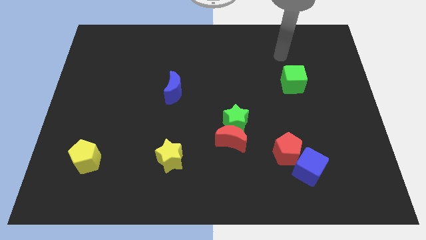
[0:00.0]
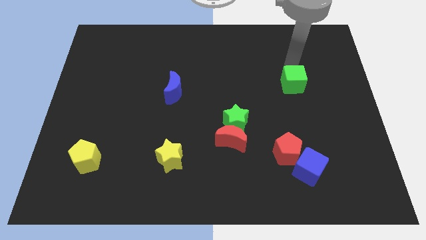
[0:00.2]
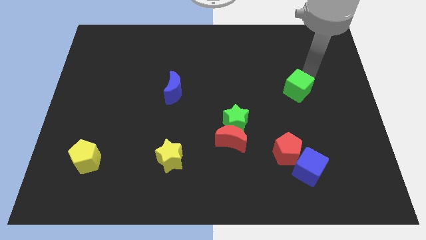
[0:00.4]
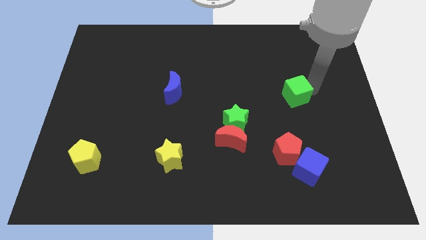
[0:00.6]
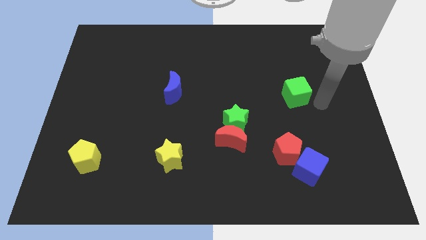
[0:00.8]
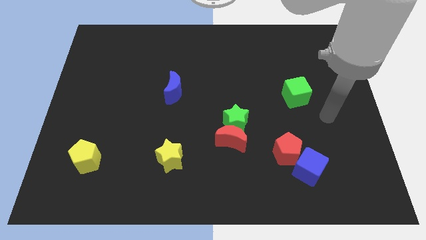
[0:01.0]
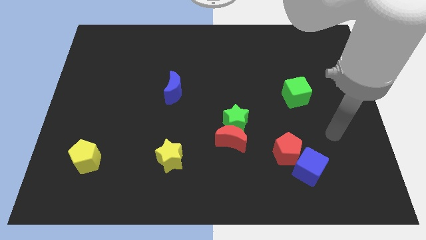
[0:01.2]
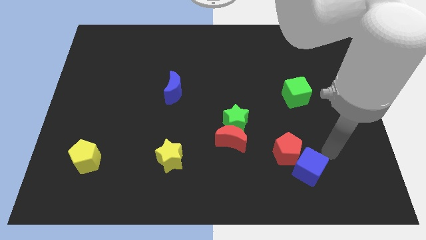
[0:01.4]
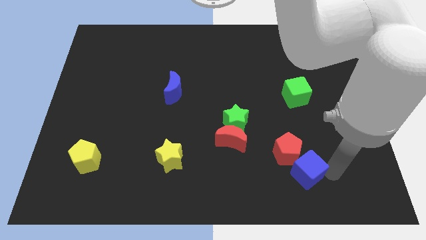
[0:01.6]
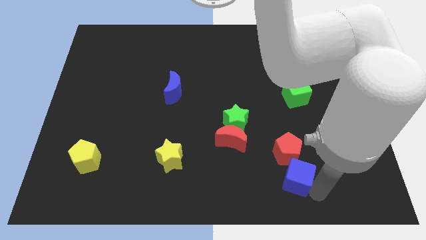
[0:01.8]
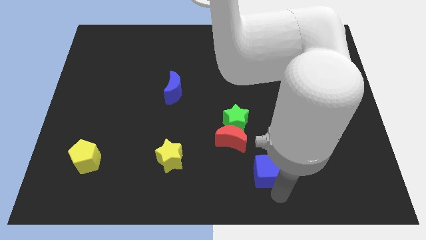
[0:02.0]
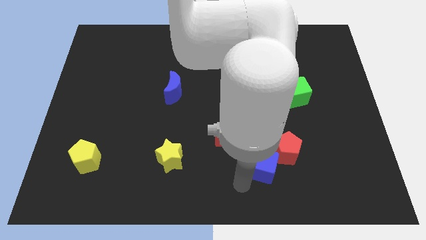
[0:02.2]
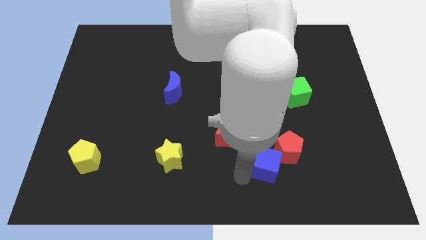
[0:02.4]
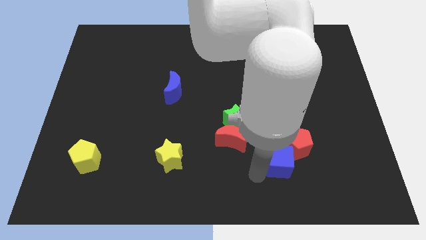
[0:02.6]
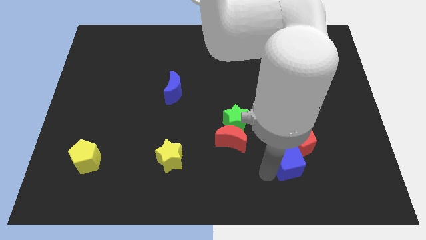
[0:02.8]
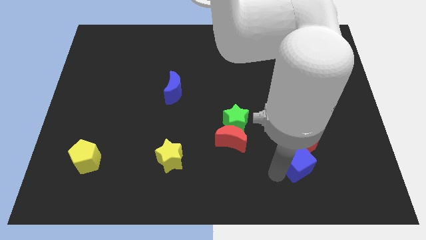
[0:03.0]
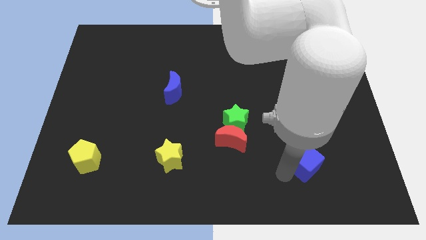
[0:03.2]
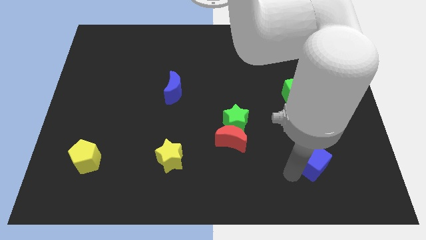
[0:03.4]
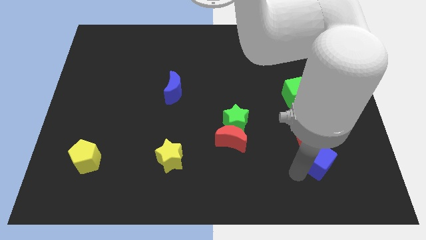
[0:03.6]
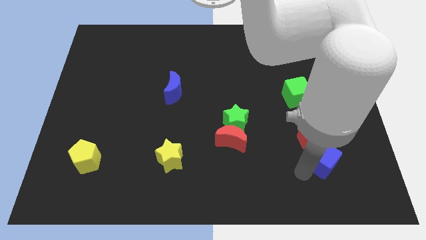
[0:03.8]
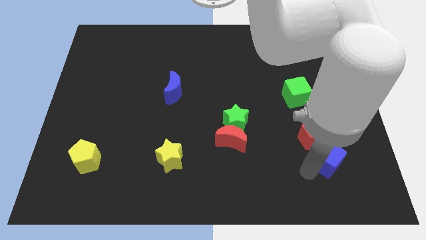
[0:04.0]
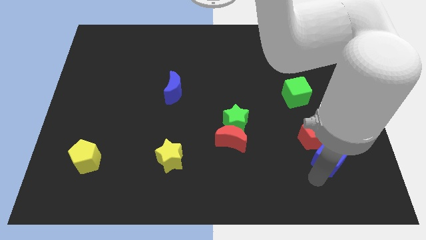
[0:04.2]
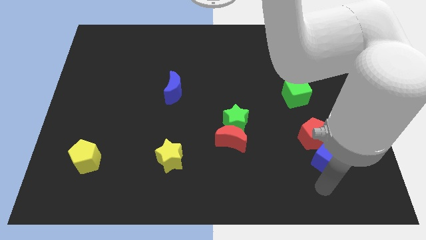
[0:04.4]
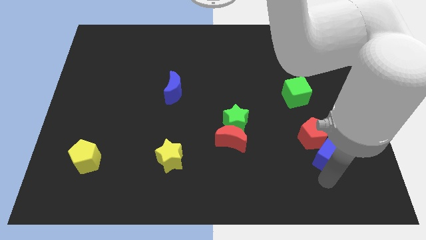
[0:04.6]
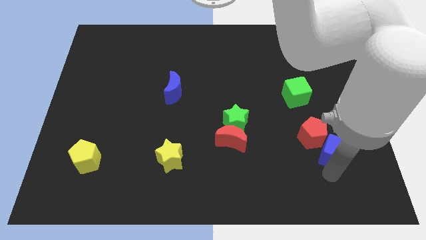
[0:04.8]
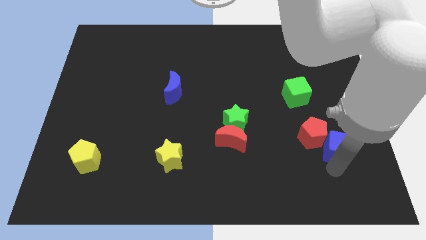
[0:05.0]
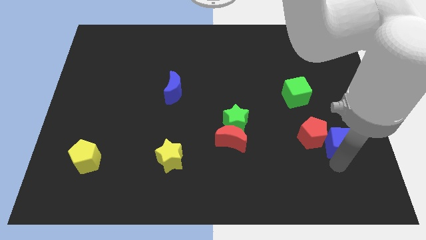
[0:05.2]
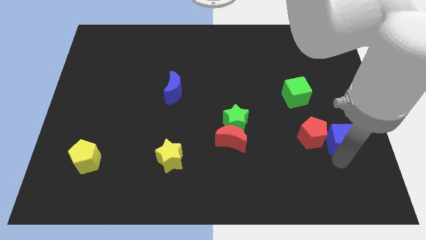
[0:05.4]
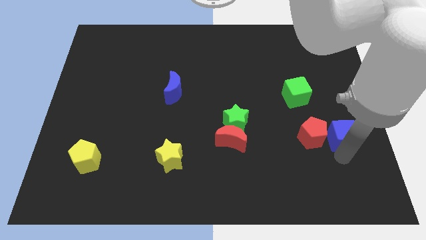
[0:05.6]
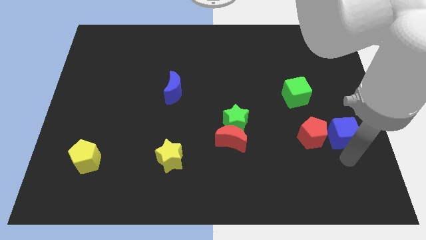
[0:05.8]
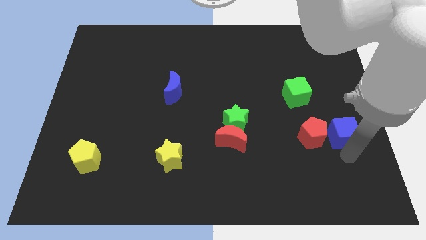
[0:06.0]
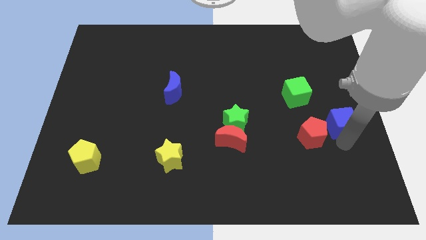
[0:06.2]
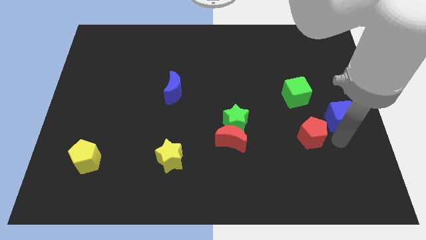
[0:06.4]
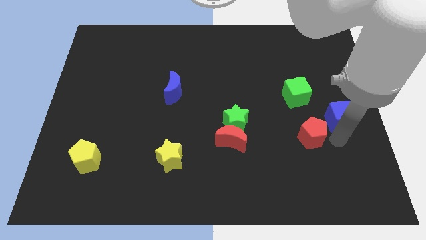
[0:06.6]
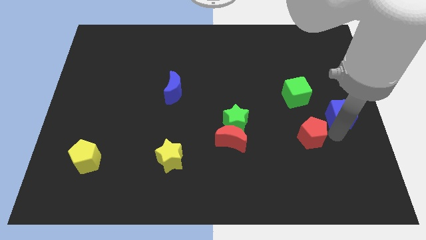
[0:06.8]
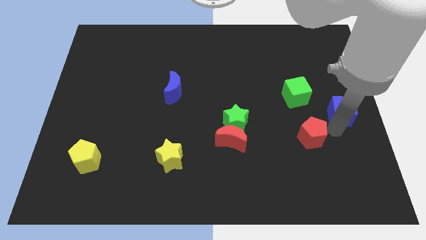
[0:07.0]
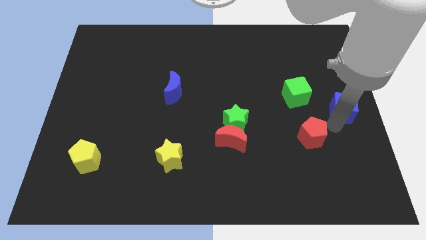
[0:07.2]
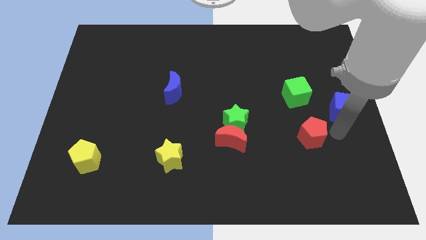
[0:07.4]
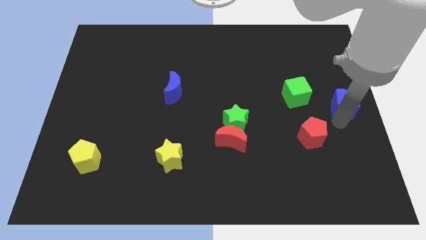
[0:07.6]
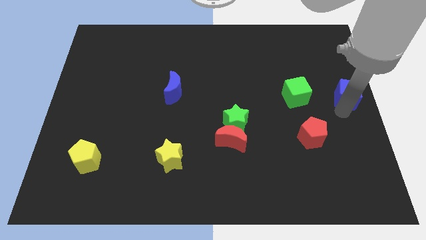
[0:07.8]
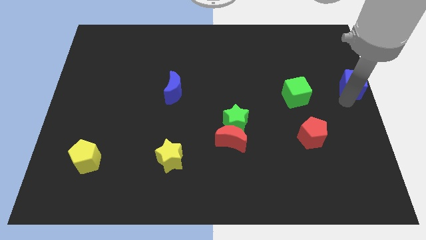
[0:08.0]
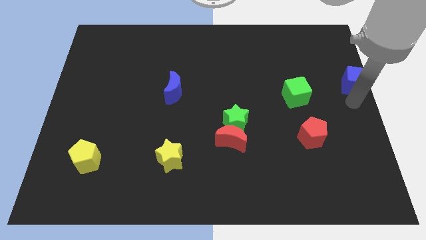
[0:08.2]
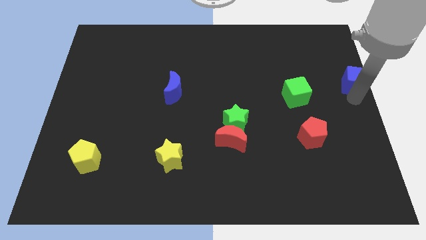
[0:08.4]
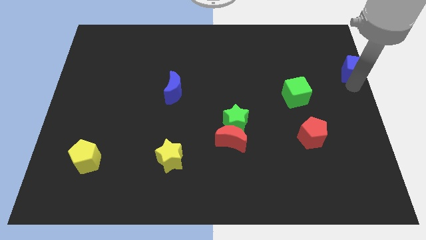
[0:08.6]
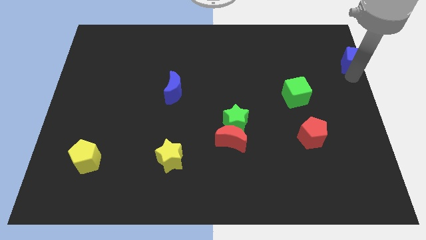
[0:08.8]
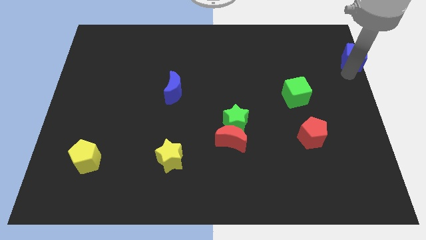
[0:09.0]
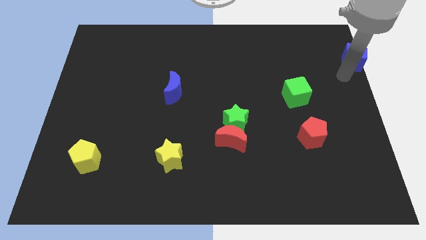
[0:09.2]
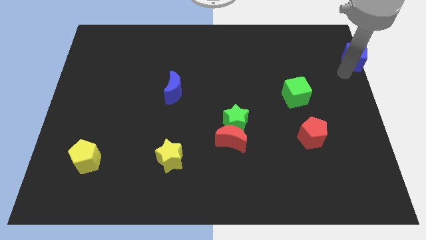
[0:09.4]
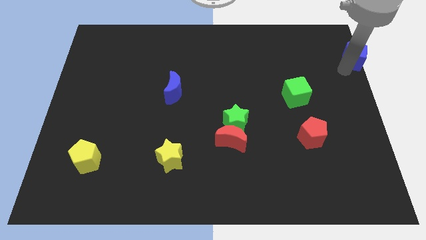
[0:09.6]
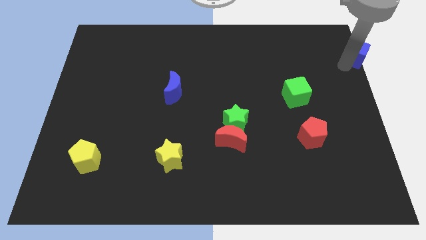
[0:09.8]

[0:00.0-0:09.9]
put the blue cube to the top right of the board

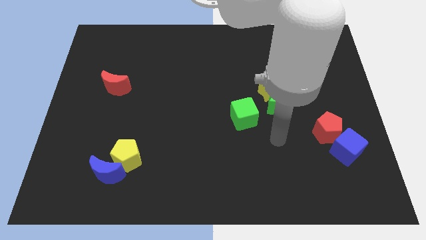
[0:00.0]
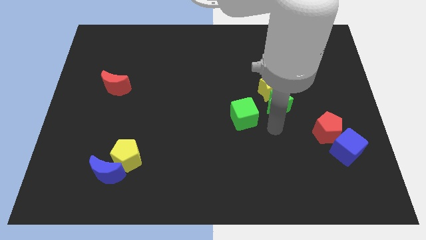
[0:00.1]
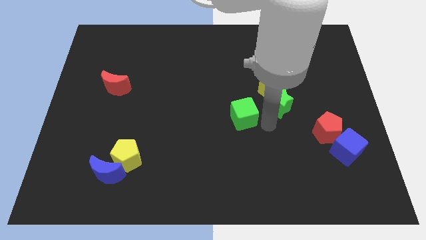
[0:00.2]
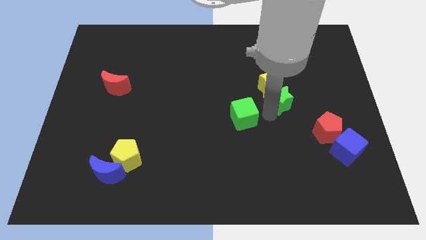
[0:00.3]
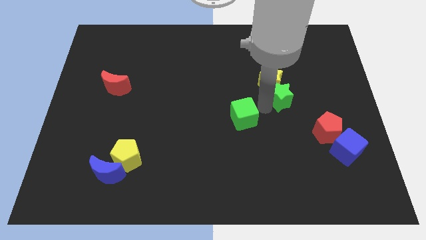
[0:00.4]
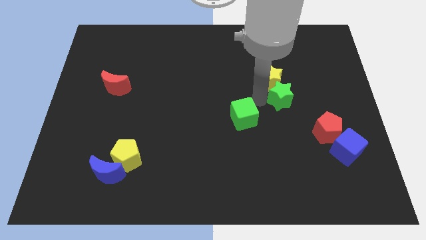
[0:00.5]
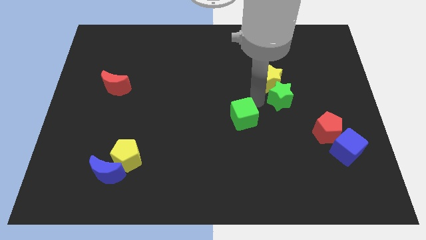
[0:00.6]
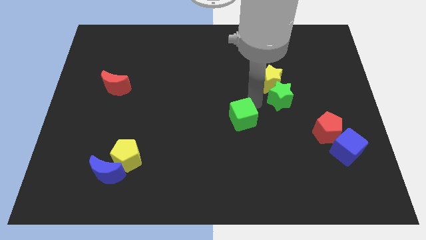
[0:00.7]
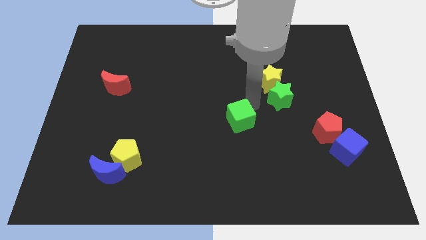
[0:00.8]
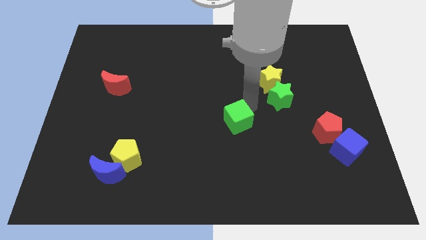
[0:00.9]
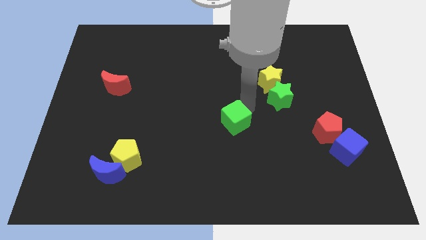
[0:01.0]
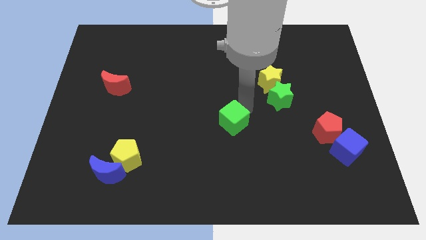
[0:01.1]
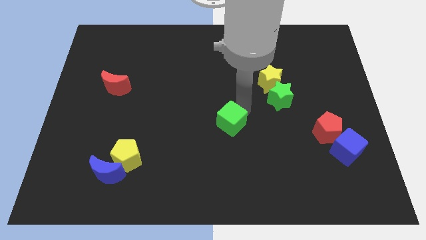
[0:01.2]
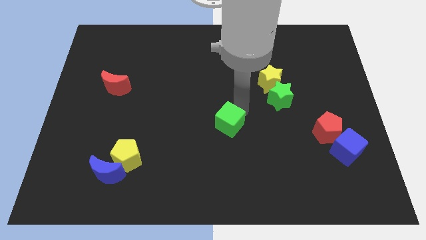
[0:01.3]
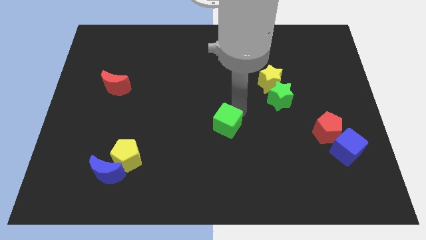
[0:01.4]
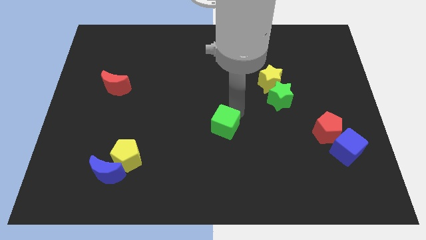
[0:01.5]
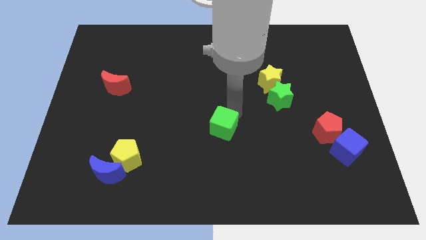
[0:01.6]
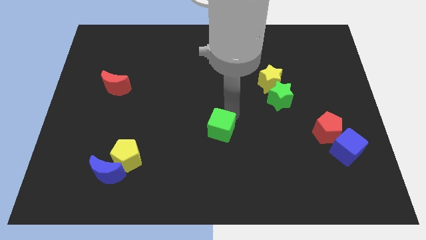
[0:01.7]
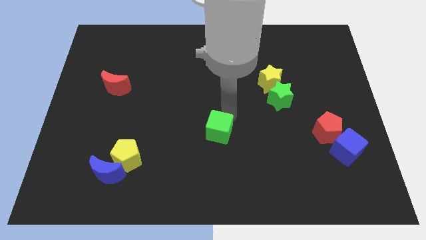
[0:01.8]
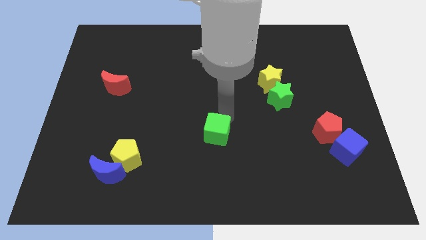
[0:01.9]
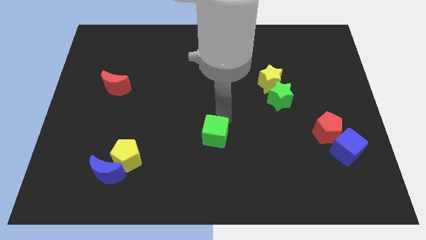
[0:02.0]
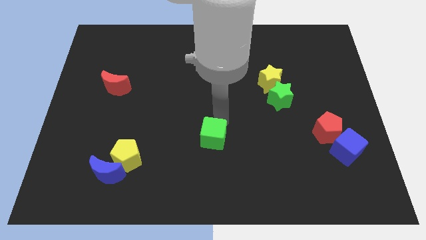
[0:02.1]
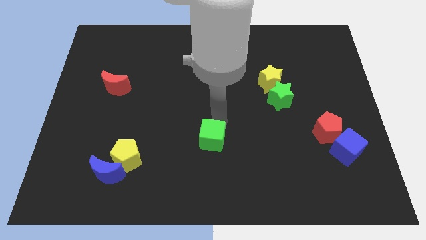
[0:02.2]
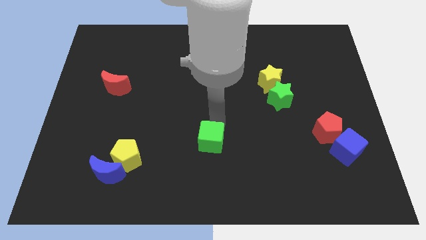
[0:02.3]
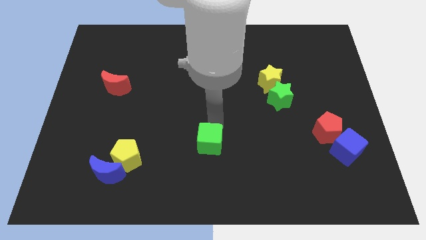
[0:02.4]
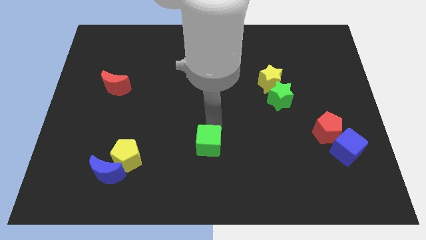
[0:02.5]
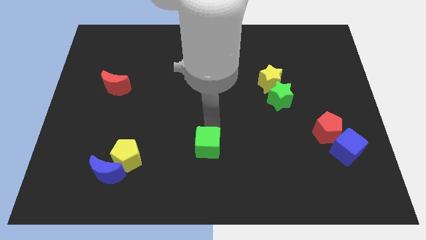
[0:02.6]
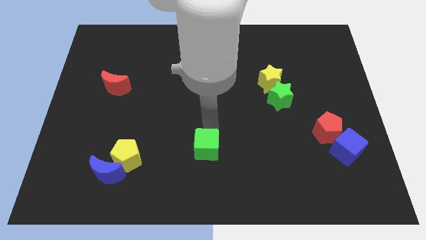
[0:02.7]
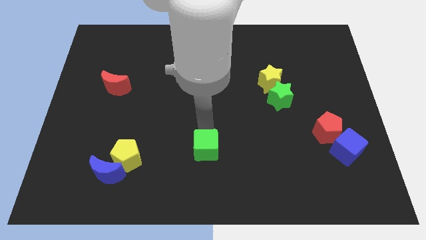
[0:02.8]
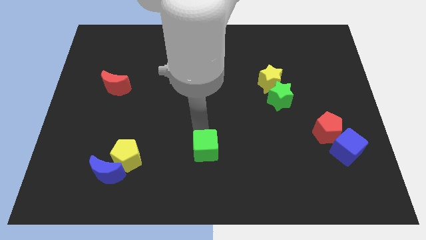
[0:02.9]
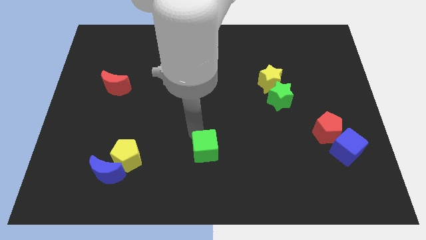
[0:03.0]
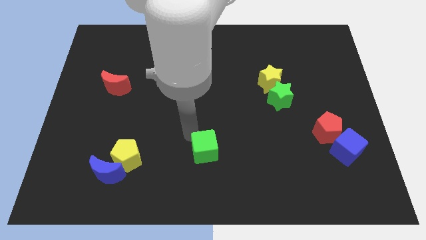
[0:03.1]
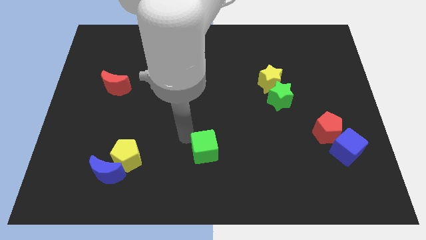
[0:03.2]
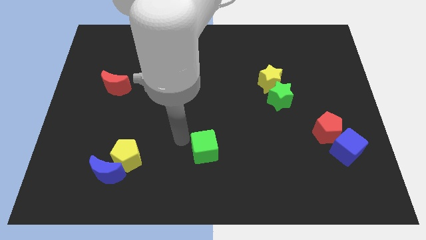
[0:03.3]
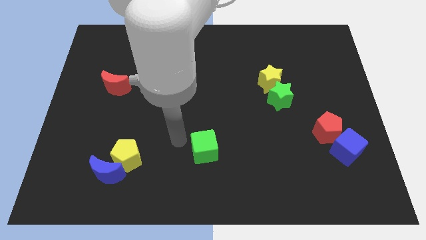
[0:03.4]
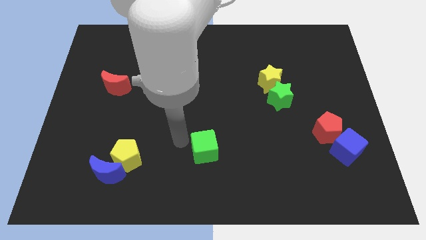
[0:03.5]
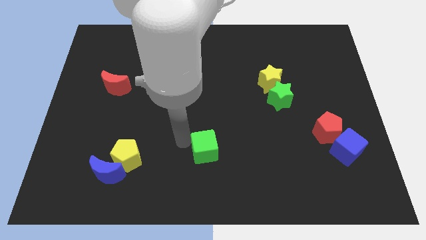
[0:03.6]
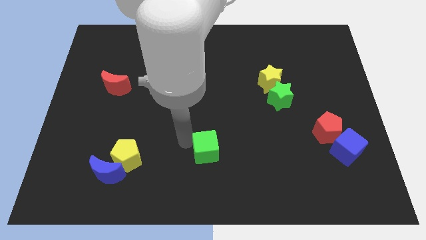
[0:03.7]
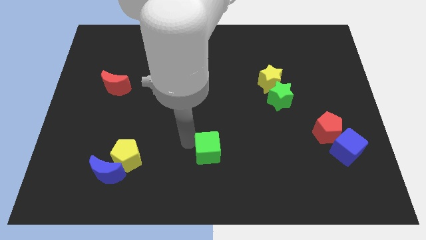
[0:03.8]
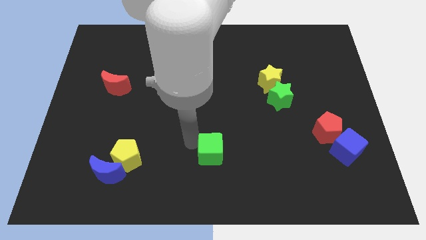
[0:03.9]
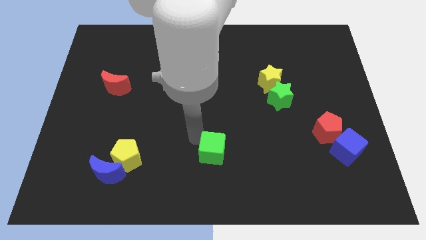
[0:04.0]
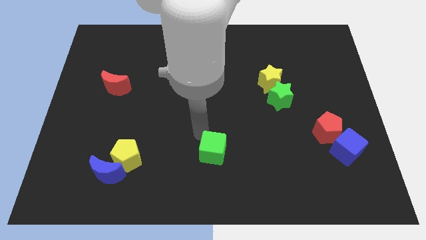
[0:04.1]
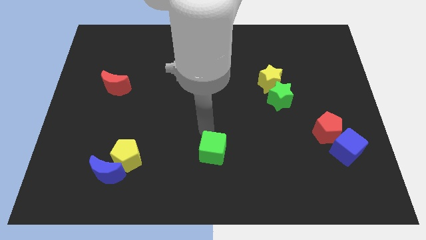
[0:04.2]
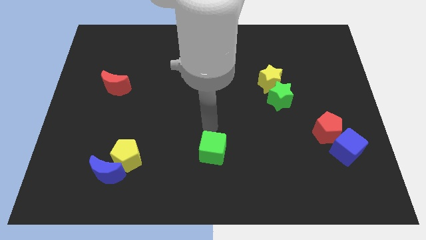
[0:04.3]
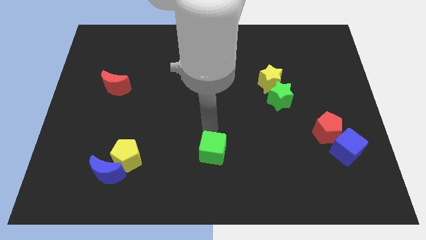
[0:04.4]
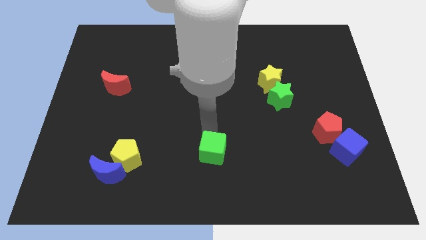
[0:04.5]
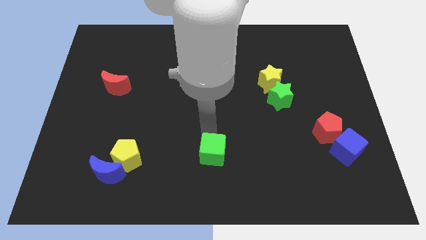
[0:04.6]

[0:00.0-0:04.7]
push the green cube to the bottom side
